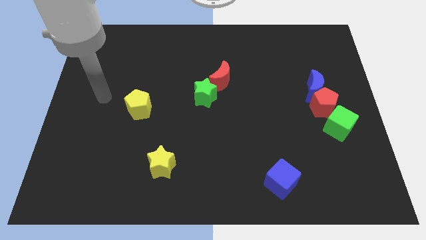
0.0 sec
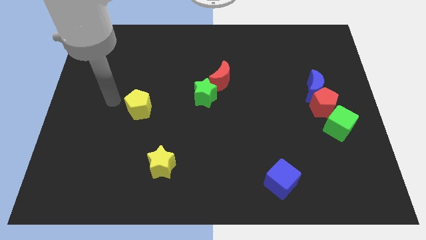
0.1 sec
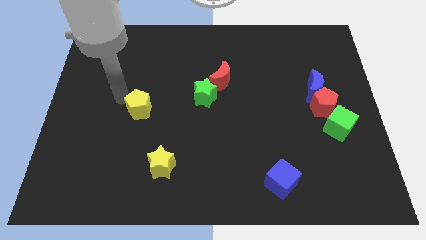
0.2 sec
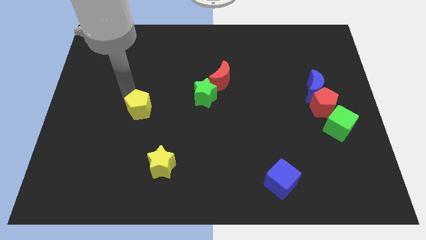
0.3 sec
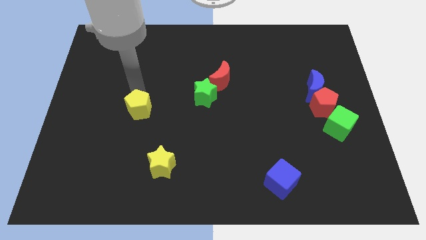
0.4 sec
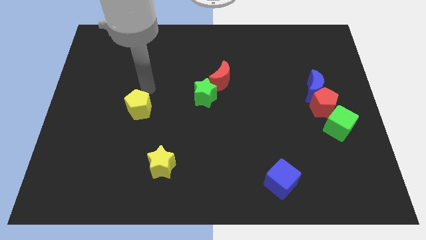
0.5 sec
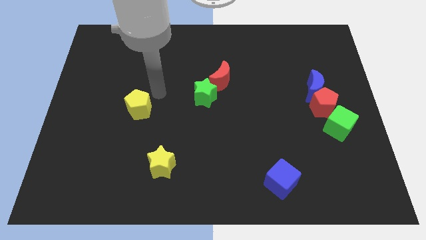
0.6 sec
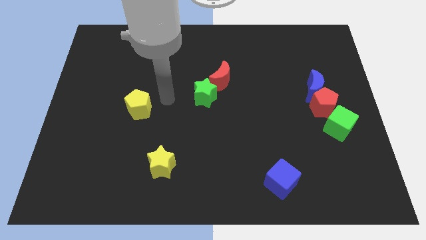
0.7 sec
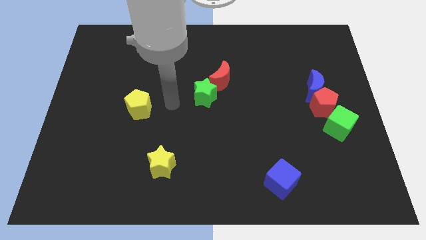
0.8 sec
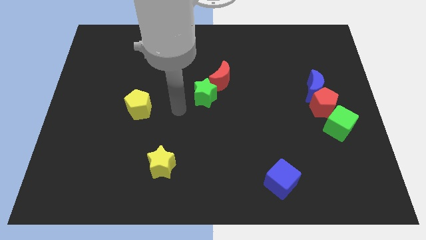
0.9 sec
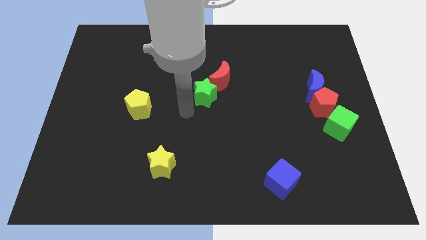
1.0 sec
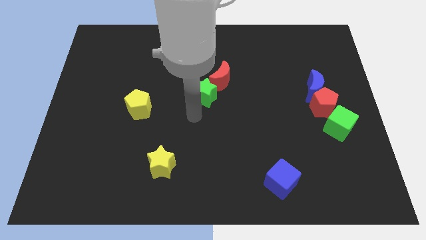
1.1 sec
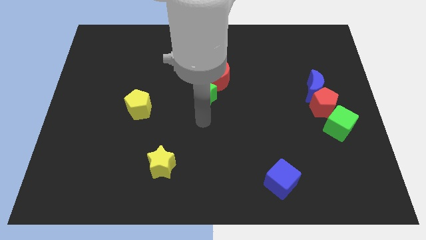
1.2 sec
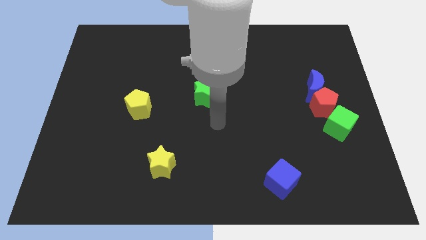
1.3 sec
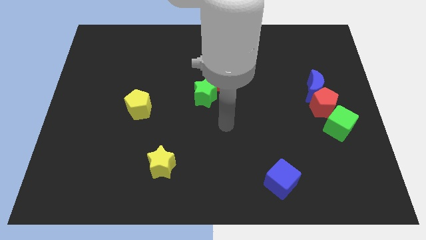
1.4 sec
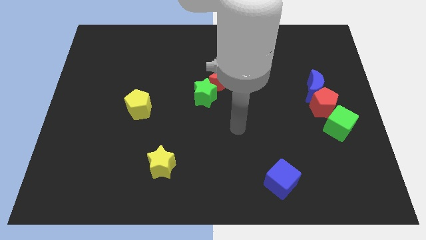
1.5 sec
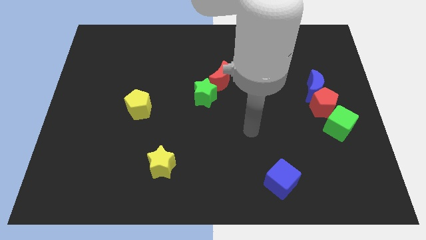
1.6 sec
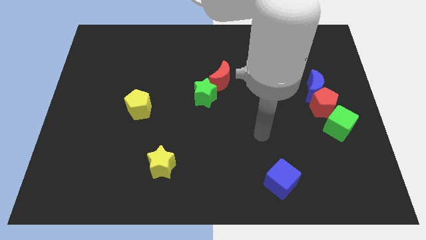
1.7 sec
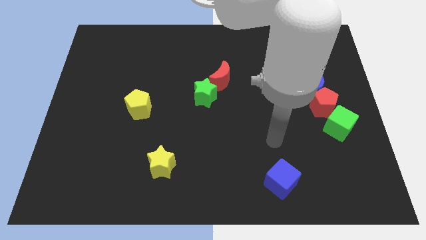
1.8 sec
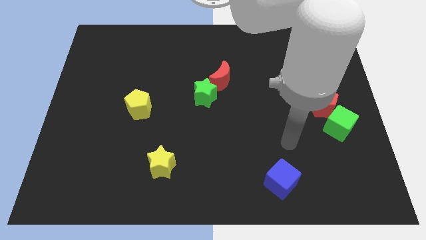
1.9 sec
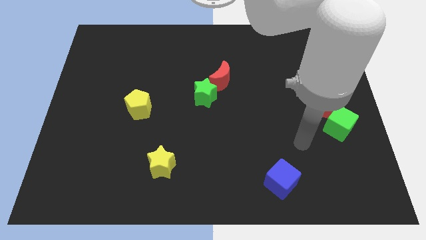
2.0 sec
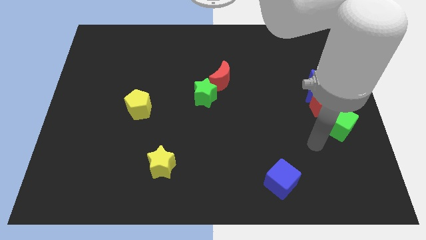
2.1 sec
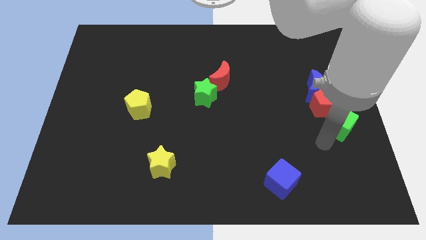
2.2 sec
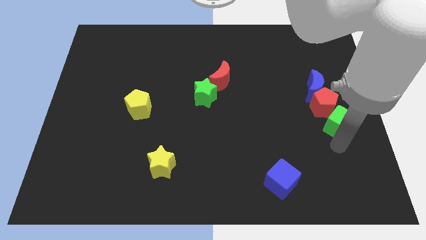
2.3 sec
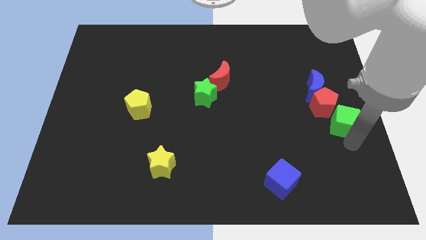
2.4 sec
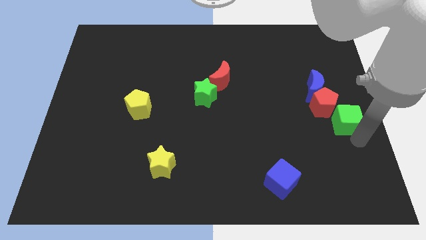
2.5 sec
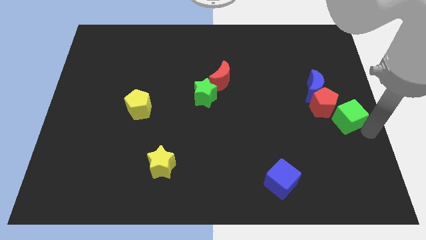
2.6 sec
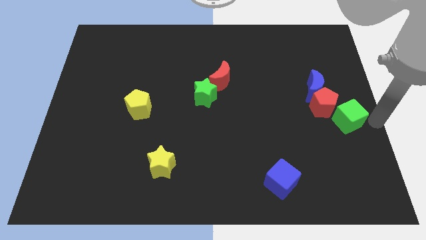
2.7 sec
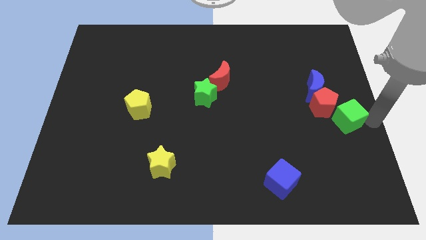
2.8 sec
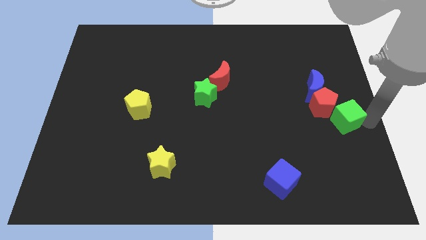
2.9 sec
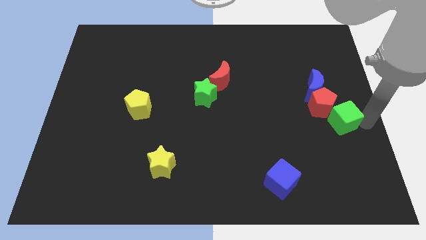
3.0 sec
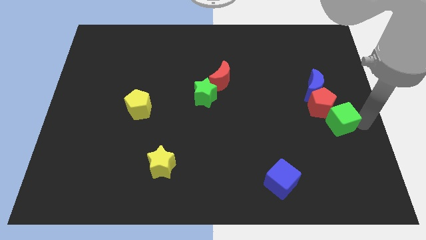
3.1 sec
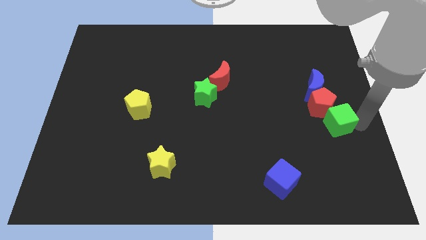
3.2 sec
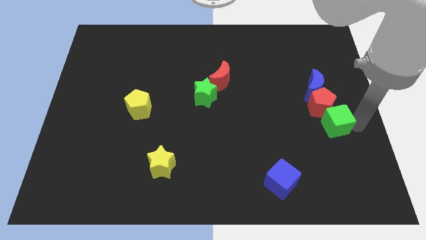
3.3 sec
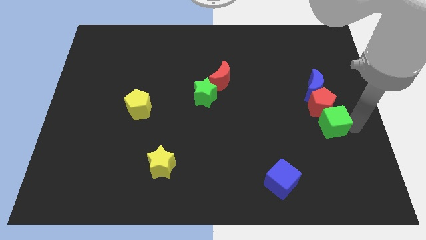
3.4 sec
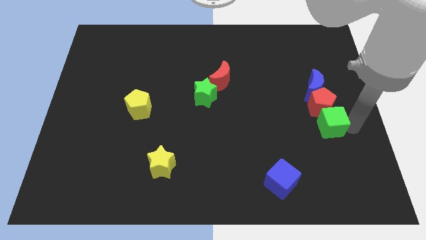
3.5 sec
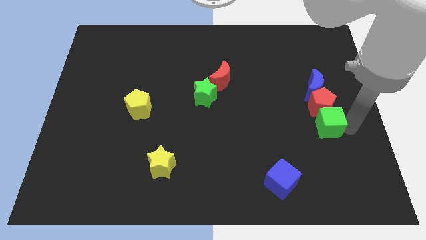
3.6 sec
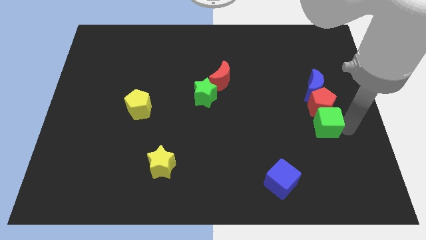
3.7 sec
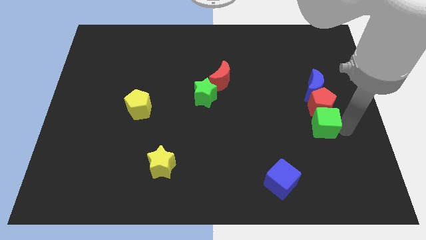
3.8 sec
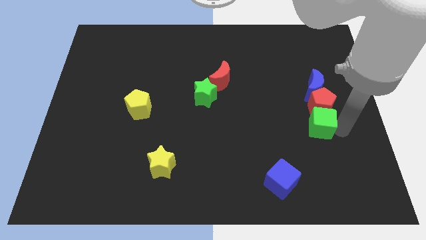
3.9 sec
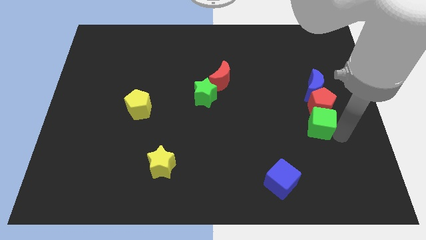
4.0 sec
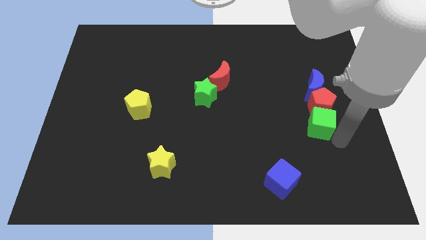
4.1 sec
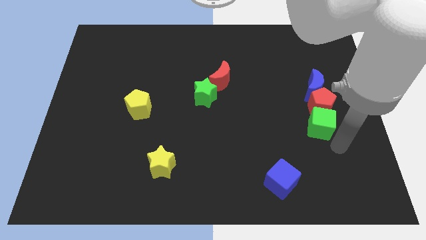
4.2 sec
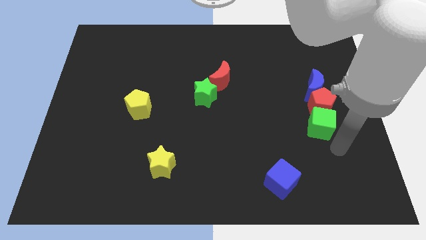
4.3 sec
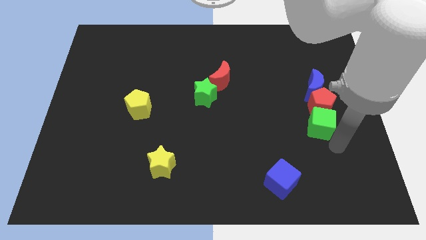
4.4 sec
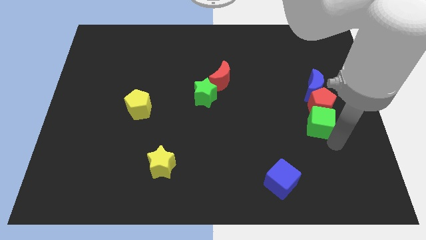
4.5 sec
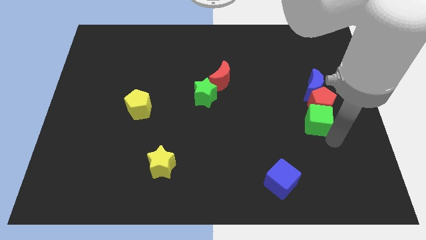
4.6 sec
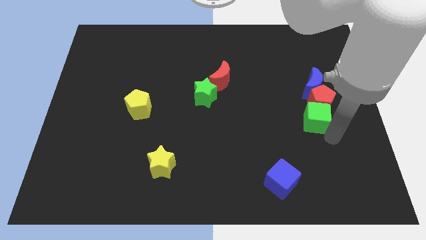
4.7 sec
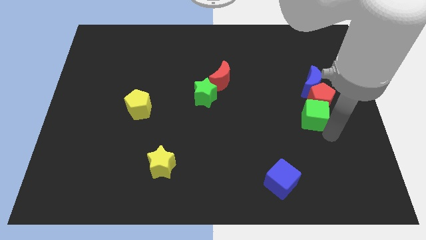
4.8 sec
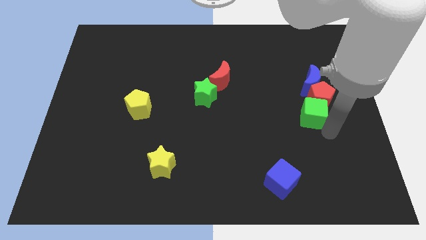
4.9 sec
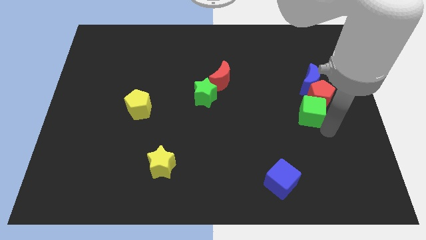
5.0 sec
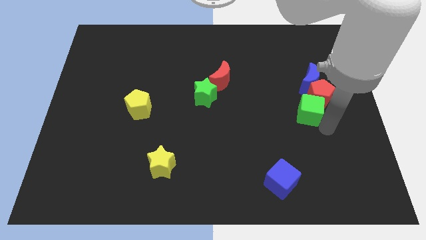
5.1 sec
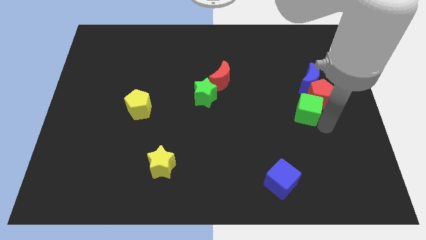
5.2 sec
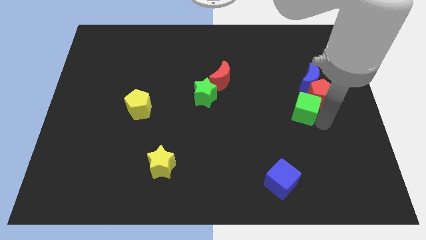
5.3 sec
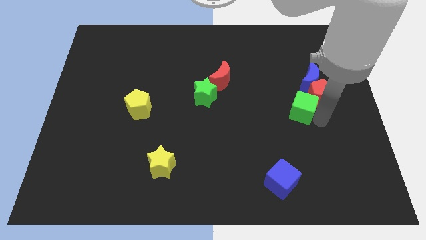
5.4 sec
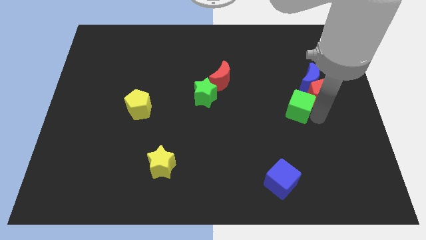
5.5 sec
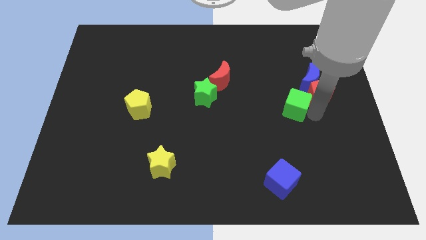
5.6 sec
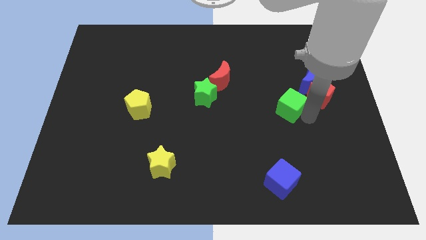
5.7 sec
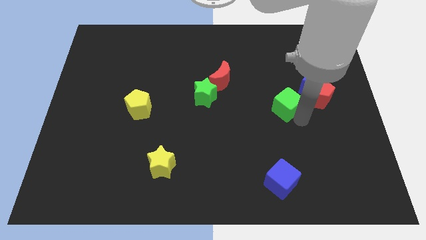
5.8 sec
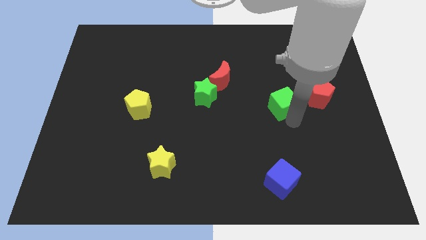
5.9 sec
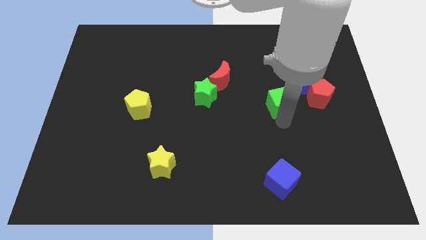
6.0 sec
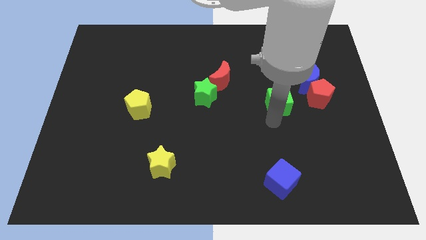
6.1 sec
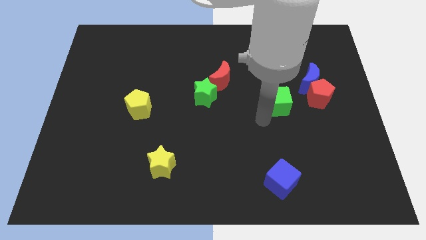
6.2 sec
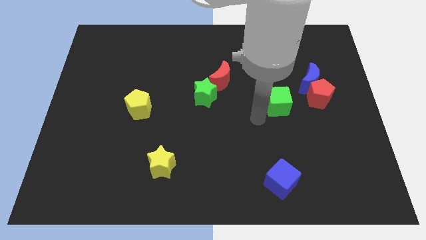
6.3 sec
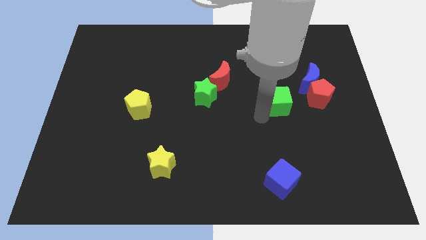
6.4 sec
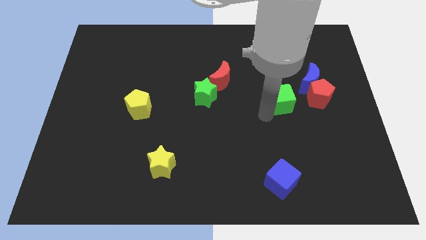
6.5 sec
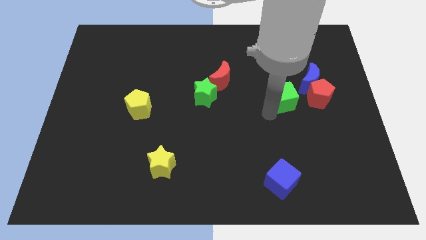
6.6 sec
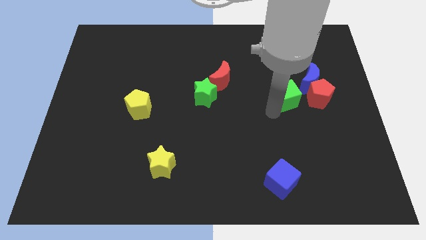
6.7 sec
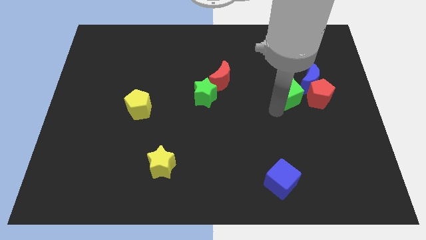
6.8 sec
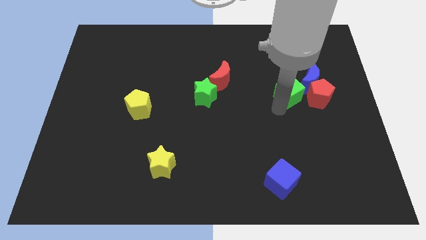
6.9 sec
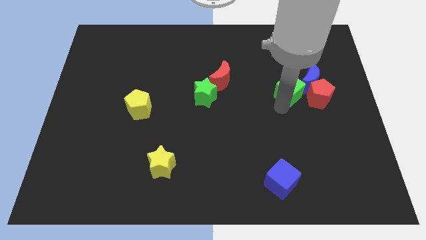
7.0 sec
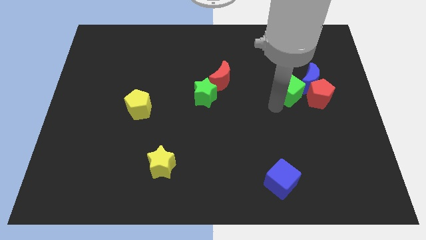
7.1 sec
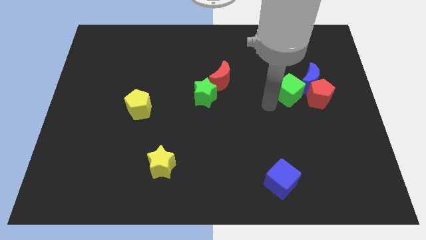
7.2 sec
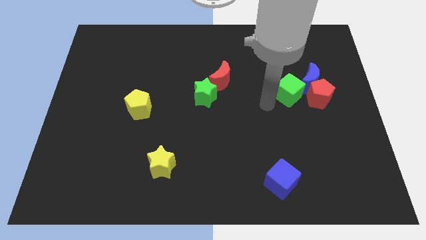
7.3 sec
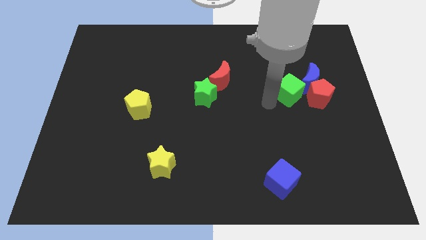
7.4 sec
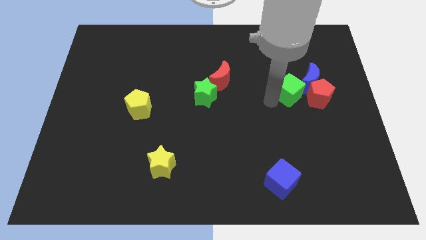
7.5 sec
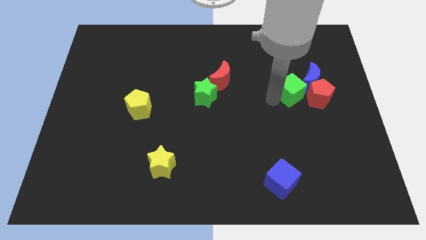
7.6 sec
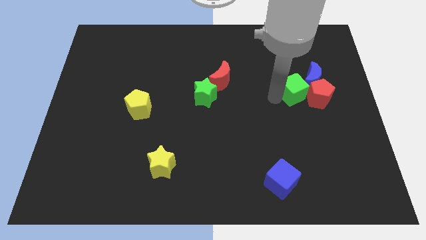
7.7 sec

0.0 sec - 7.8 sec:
put the green cube to the blue moon
